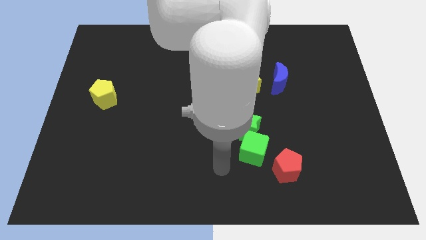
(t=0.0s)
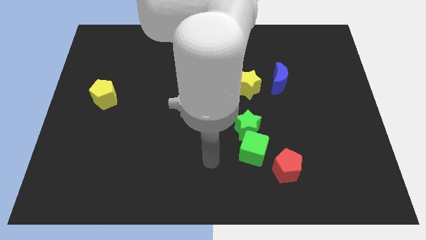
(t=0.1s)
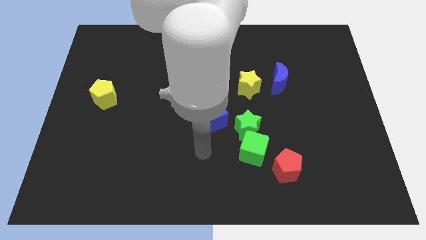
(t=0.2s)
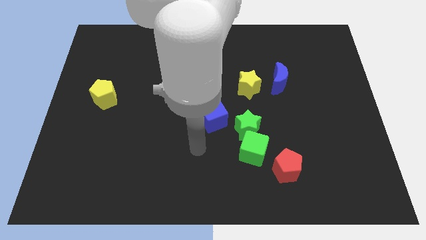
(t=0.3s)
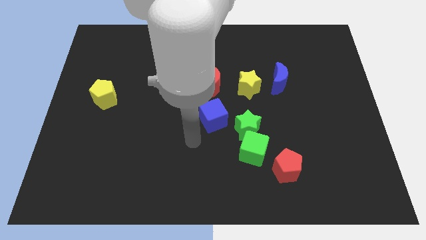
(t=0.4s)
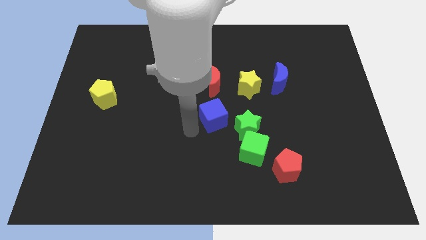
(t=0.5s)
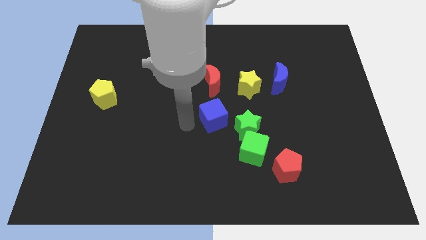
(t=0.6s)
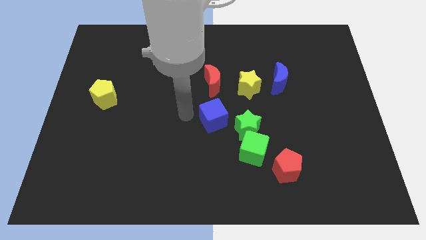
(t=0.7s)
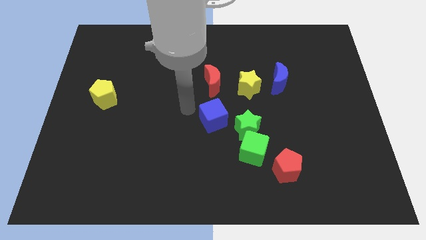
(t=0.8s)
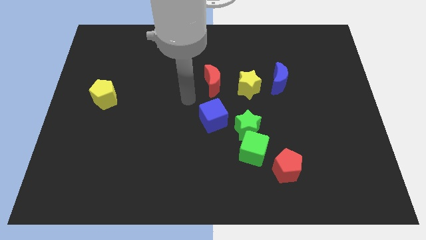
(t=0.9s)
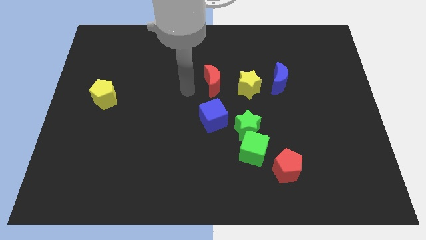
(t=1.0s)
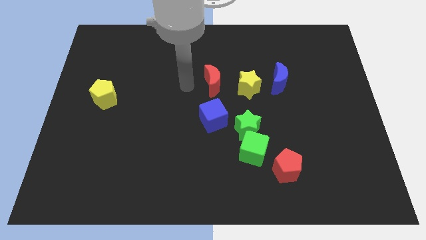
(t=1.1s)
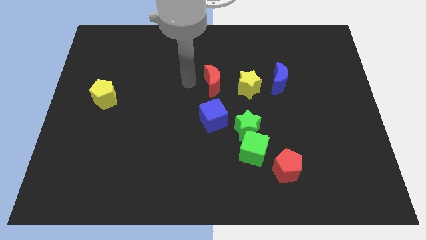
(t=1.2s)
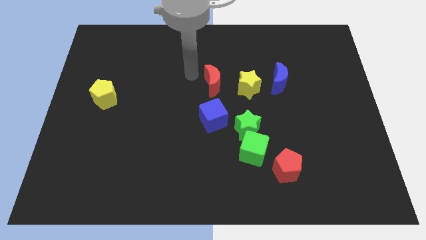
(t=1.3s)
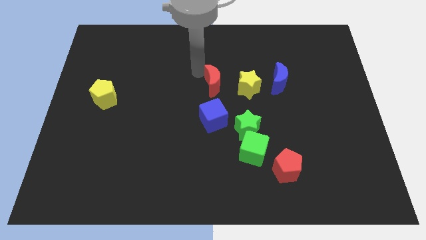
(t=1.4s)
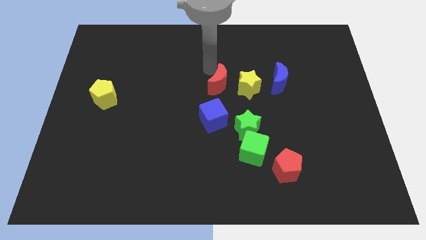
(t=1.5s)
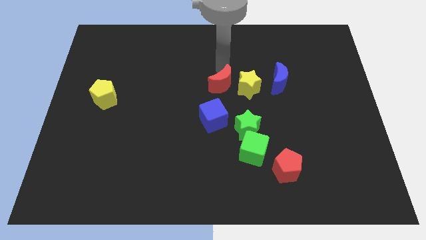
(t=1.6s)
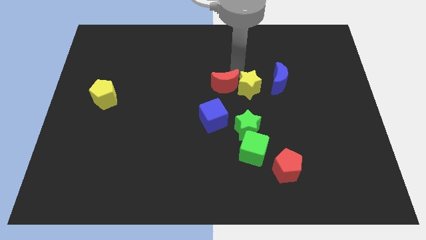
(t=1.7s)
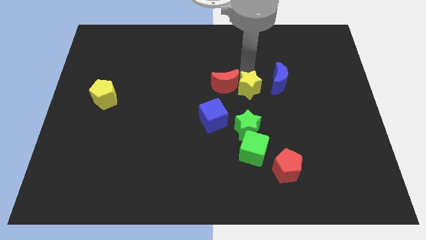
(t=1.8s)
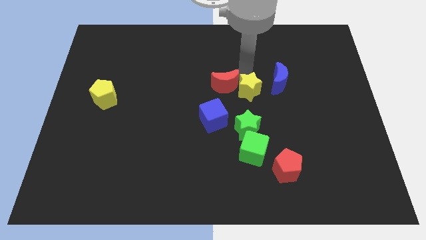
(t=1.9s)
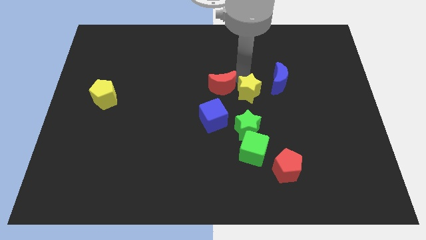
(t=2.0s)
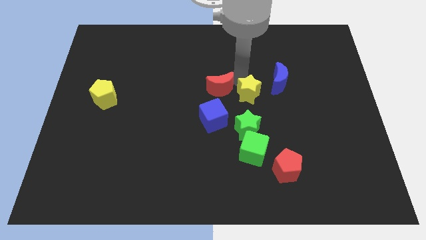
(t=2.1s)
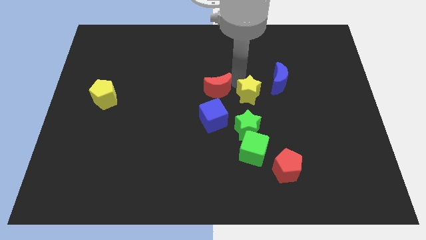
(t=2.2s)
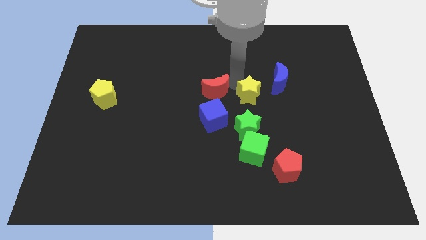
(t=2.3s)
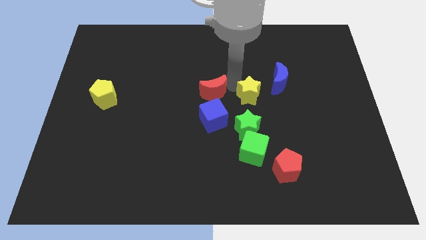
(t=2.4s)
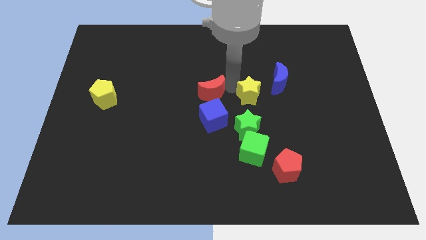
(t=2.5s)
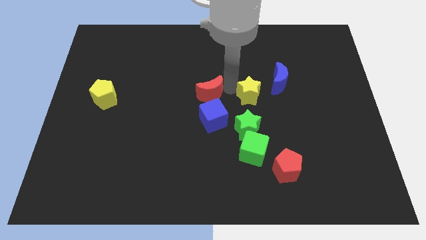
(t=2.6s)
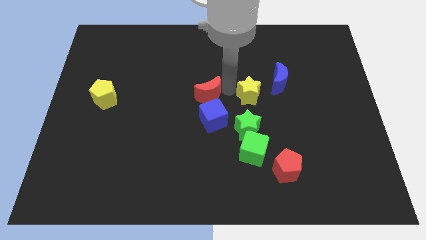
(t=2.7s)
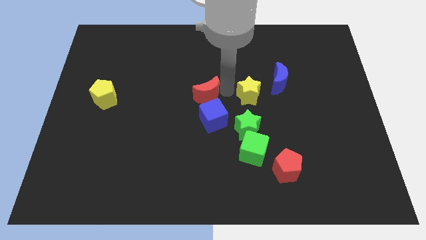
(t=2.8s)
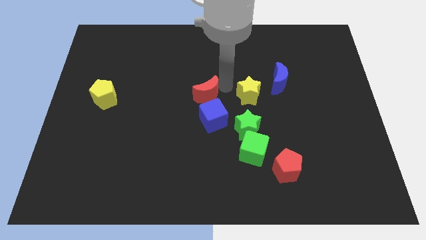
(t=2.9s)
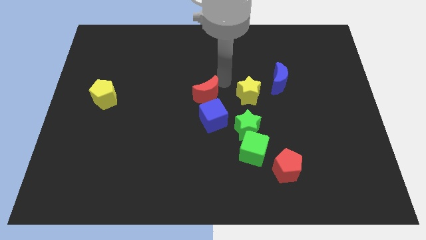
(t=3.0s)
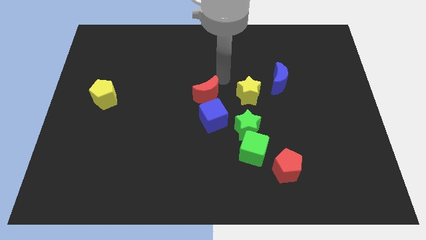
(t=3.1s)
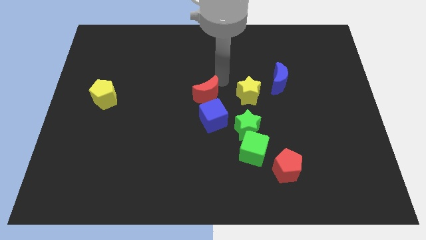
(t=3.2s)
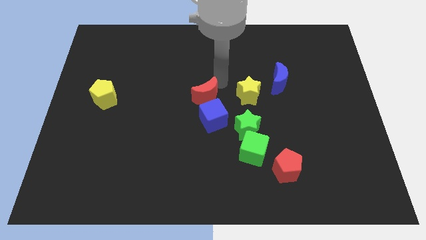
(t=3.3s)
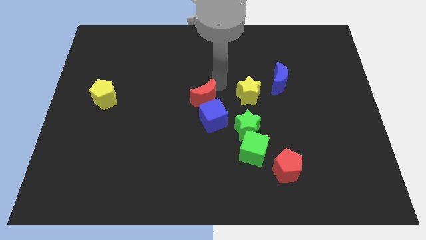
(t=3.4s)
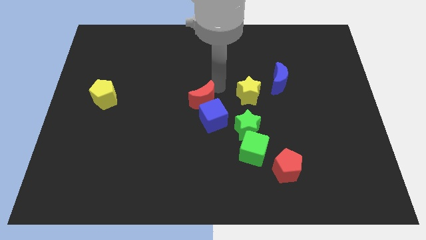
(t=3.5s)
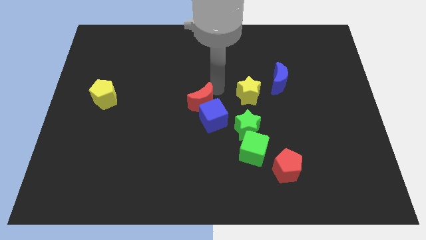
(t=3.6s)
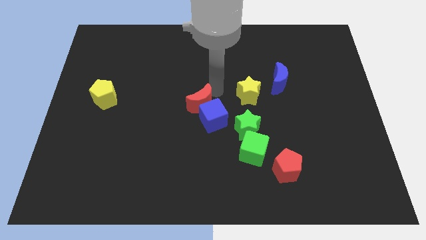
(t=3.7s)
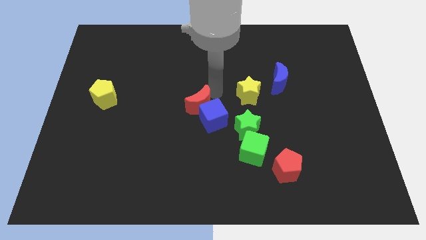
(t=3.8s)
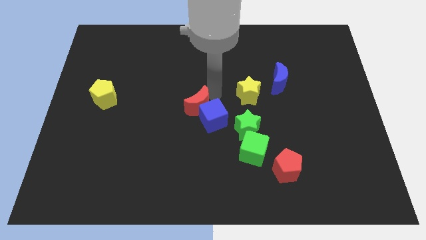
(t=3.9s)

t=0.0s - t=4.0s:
slightly slide the red moon down

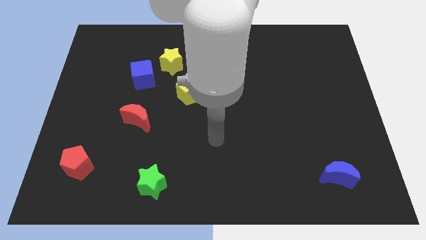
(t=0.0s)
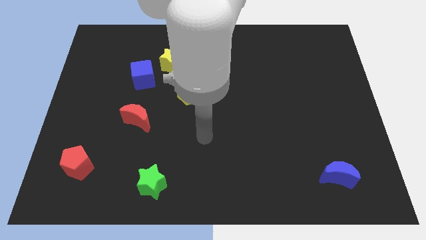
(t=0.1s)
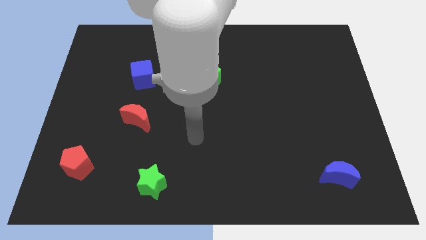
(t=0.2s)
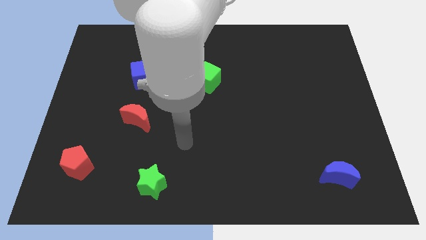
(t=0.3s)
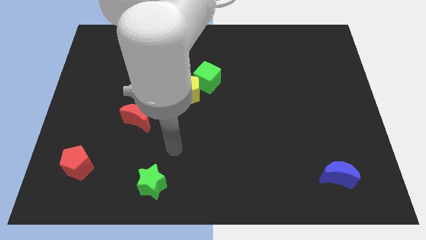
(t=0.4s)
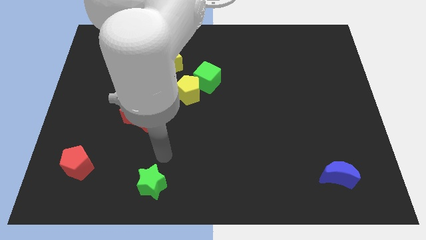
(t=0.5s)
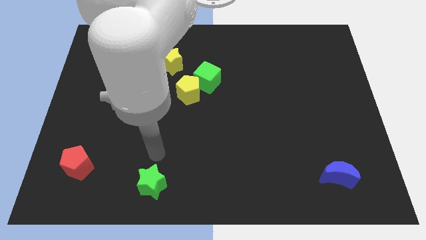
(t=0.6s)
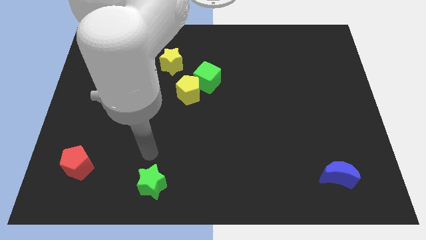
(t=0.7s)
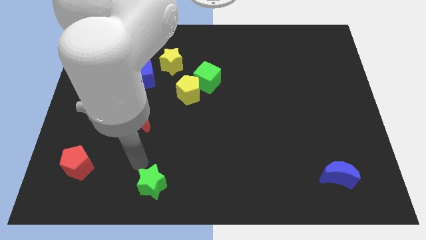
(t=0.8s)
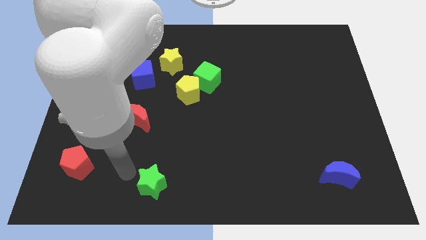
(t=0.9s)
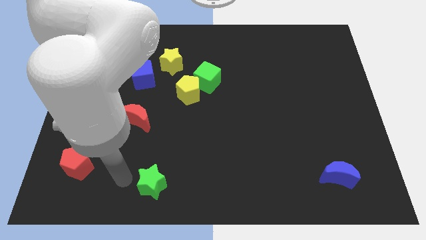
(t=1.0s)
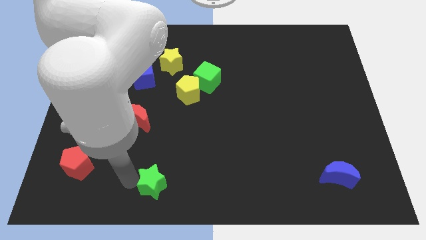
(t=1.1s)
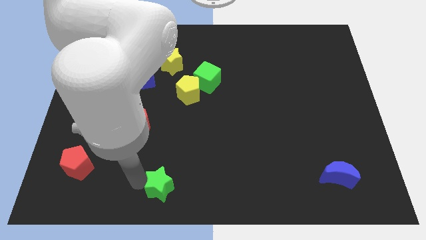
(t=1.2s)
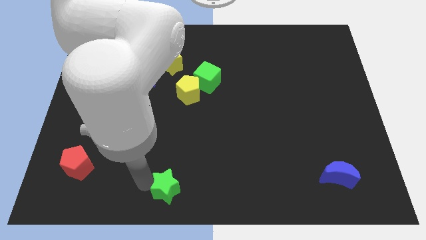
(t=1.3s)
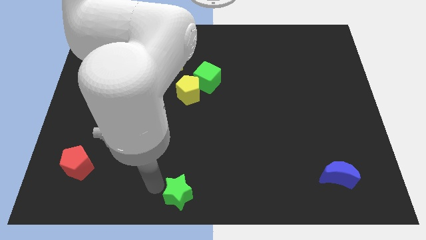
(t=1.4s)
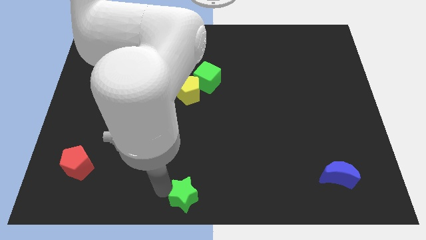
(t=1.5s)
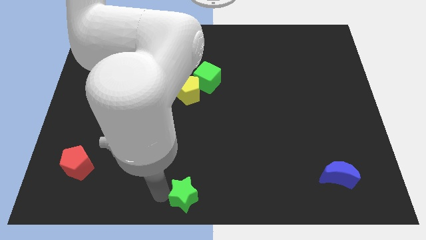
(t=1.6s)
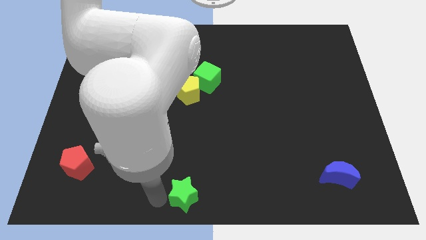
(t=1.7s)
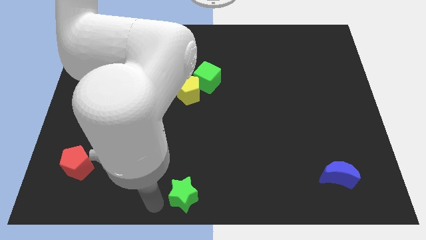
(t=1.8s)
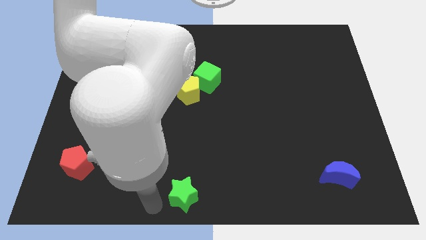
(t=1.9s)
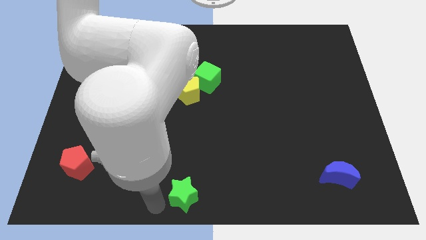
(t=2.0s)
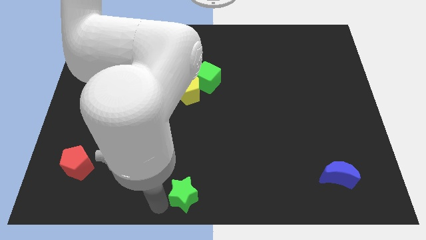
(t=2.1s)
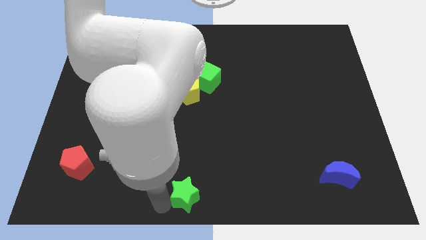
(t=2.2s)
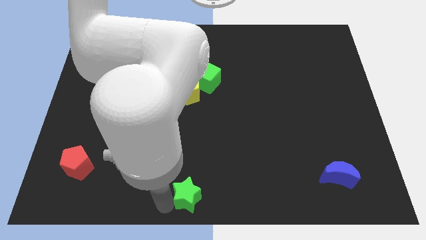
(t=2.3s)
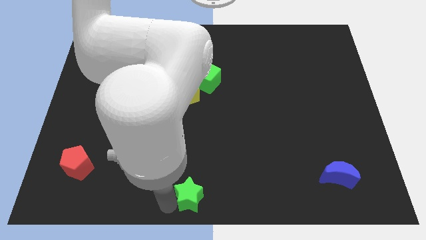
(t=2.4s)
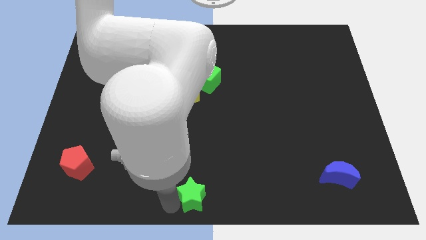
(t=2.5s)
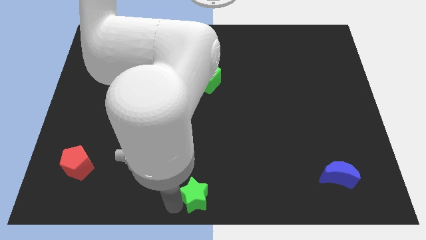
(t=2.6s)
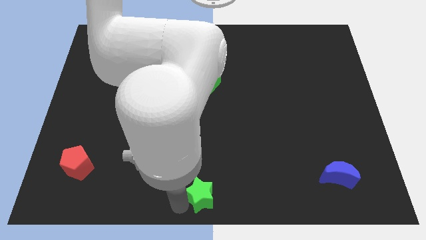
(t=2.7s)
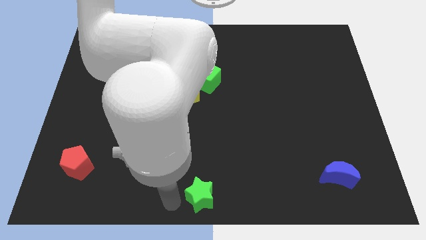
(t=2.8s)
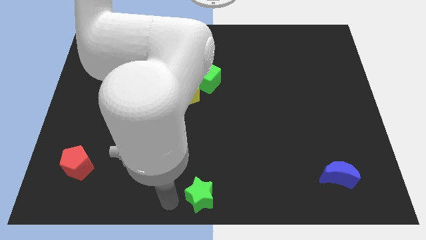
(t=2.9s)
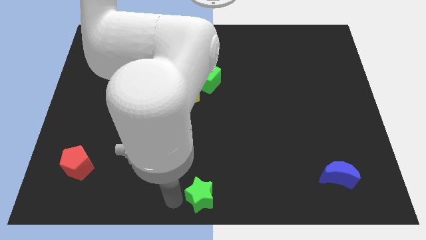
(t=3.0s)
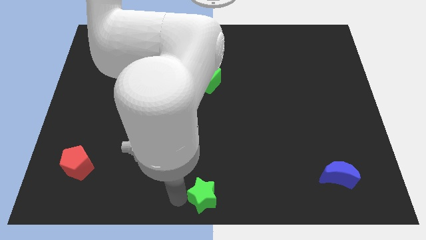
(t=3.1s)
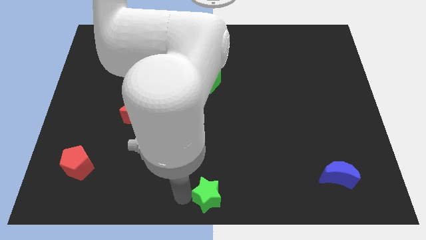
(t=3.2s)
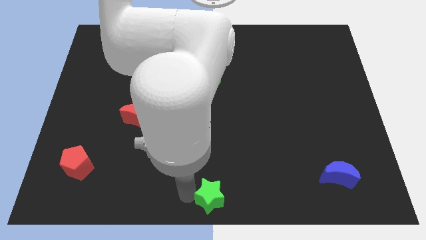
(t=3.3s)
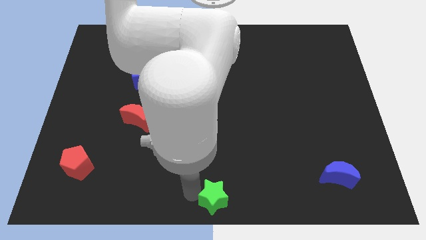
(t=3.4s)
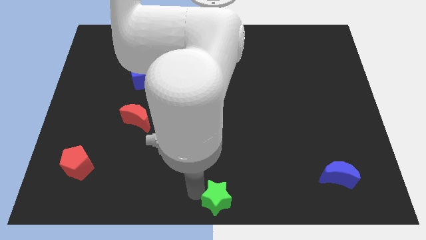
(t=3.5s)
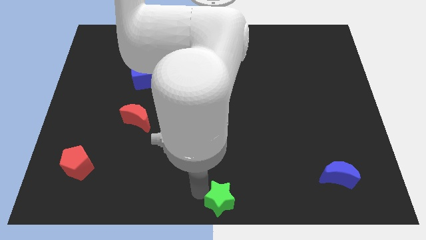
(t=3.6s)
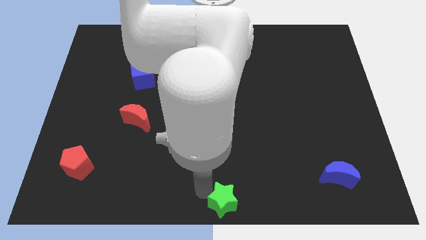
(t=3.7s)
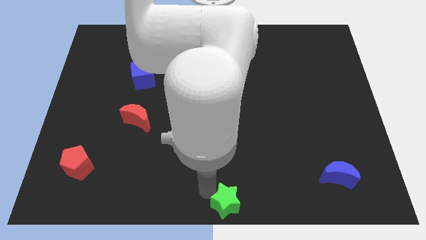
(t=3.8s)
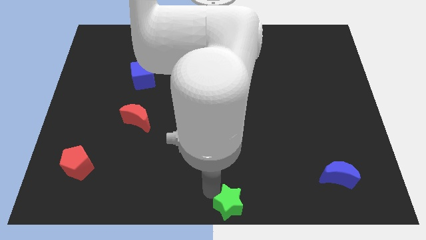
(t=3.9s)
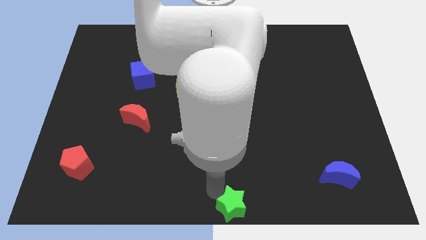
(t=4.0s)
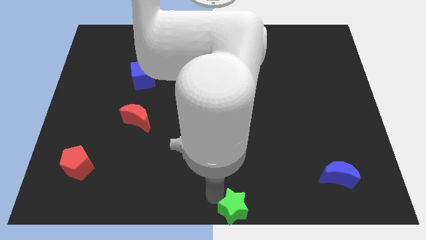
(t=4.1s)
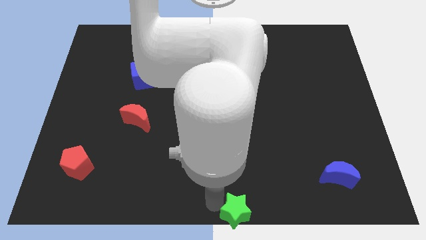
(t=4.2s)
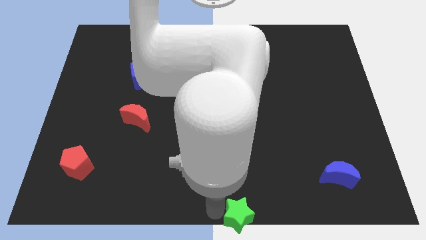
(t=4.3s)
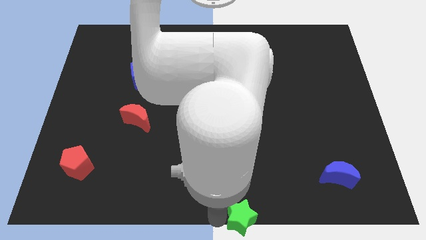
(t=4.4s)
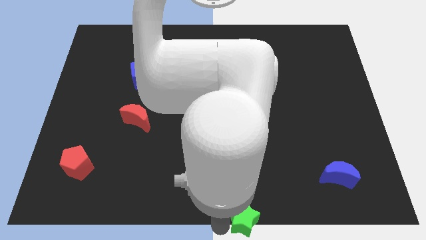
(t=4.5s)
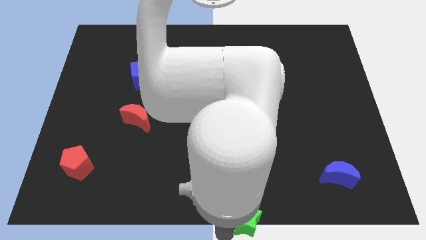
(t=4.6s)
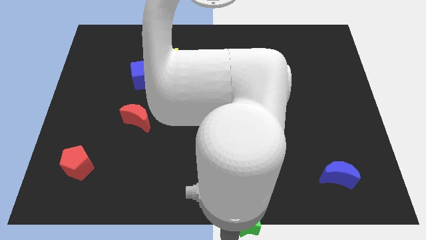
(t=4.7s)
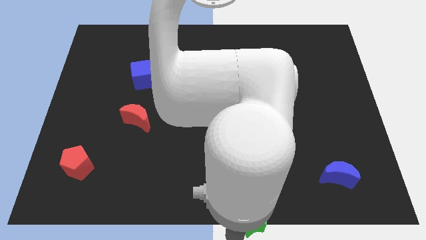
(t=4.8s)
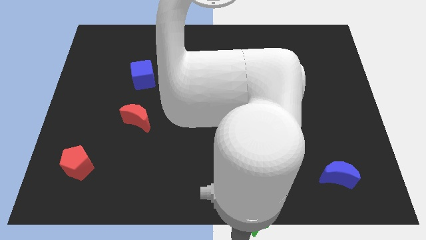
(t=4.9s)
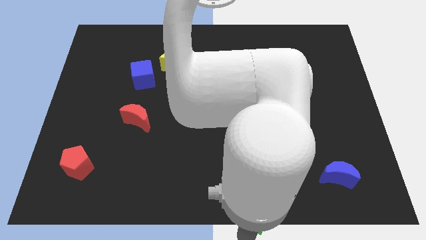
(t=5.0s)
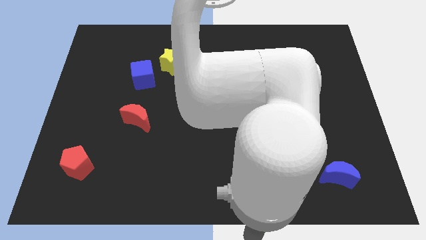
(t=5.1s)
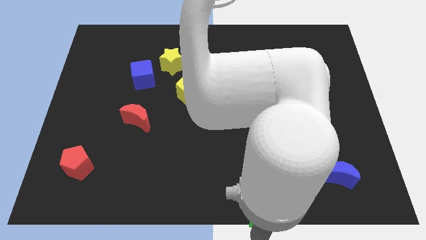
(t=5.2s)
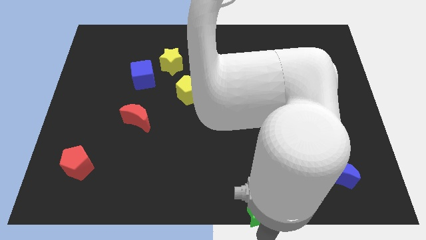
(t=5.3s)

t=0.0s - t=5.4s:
slide the green star right
